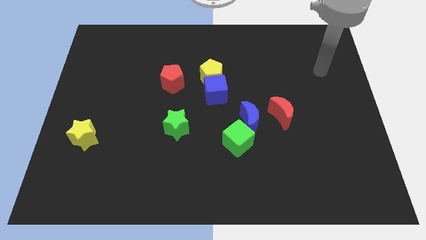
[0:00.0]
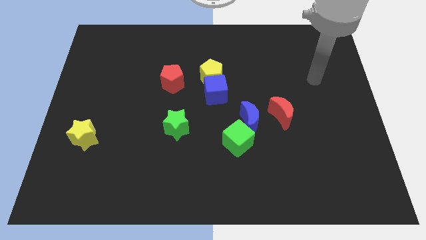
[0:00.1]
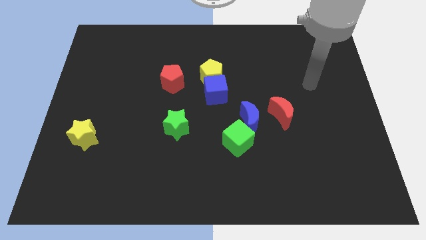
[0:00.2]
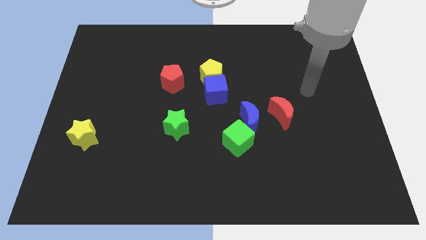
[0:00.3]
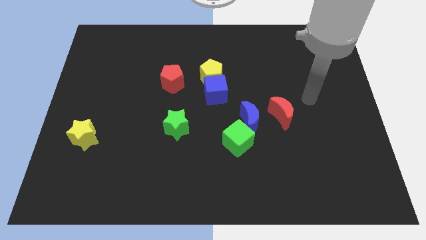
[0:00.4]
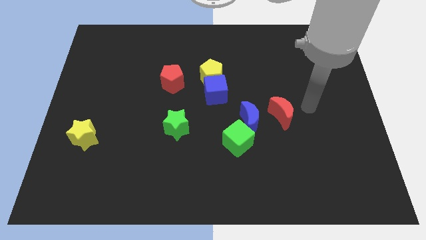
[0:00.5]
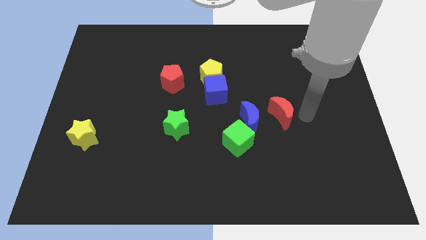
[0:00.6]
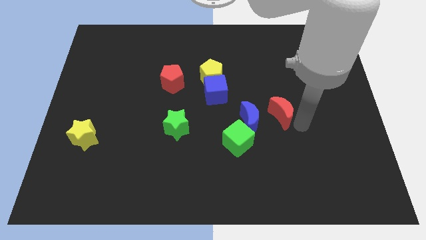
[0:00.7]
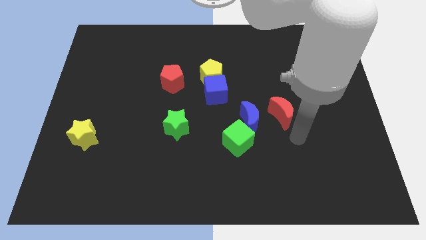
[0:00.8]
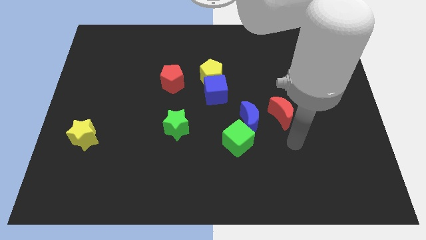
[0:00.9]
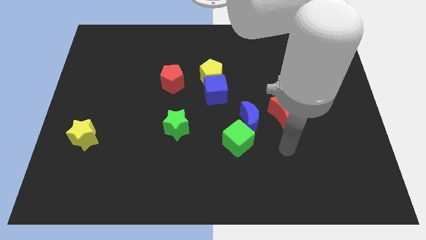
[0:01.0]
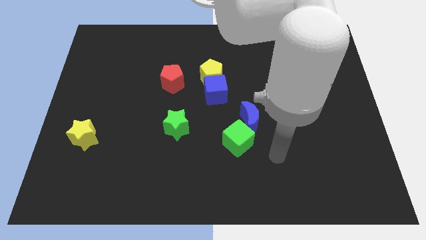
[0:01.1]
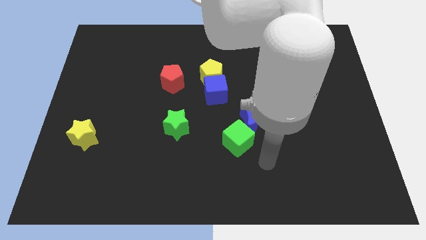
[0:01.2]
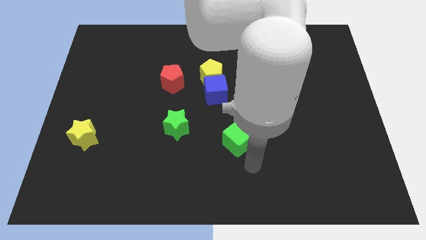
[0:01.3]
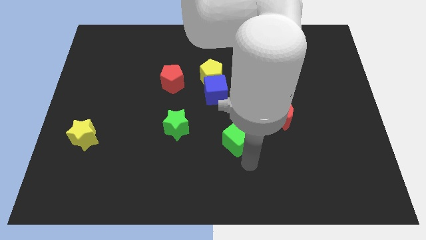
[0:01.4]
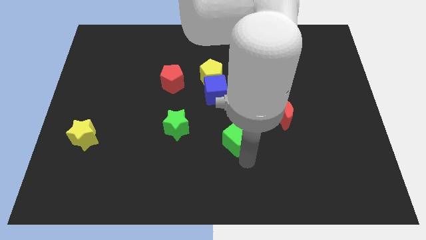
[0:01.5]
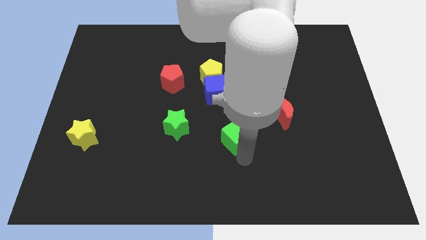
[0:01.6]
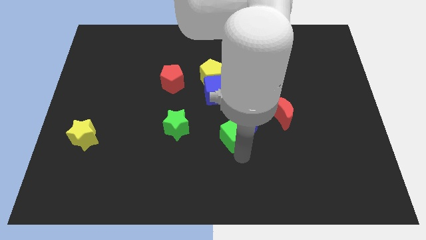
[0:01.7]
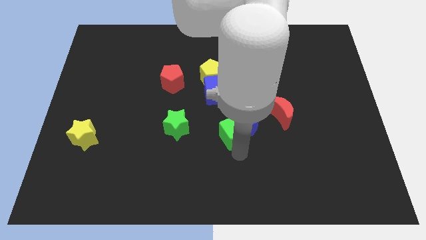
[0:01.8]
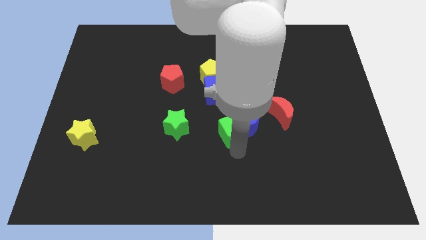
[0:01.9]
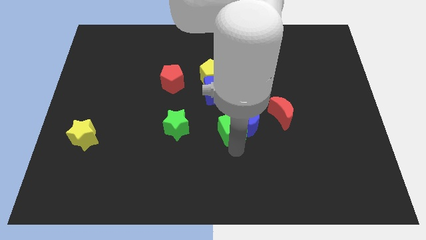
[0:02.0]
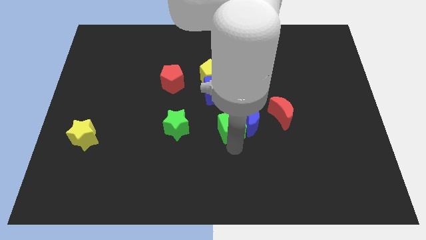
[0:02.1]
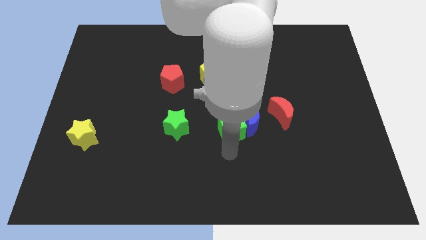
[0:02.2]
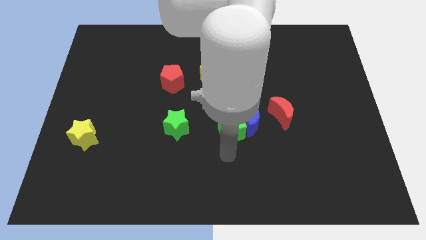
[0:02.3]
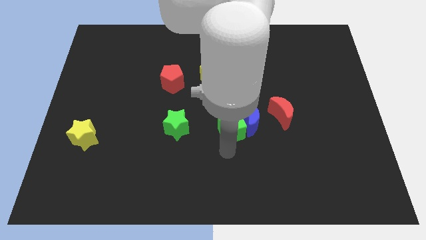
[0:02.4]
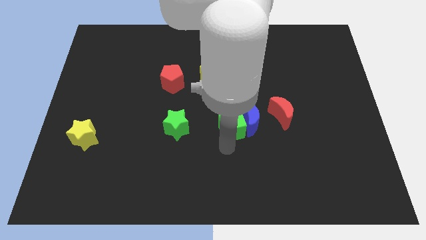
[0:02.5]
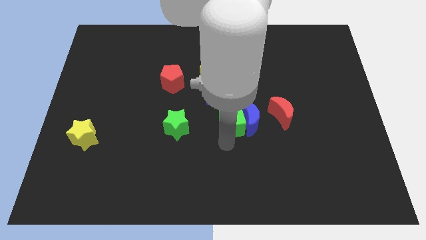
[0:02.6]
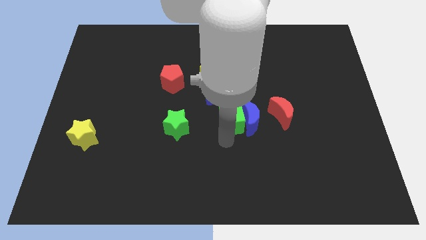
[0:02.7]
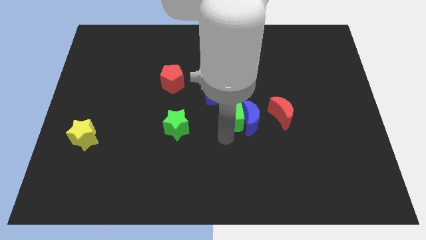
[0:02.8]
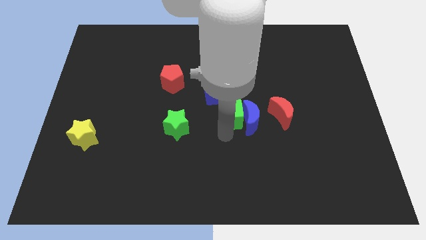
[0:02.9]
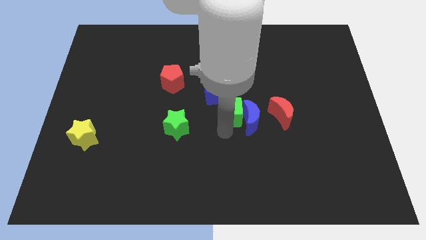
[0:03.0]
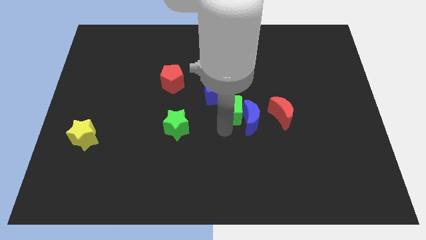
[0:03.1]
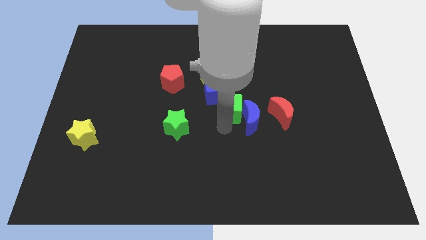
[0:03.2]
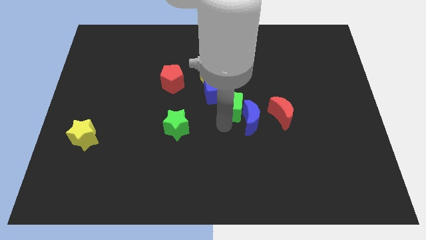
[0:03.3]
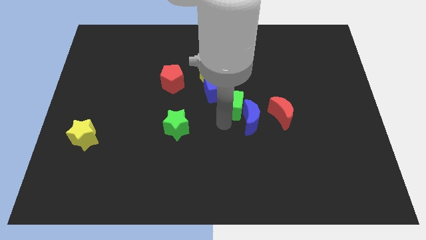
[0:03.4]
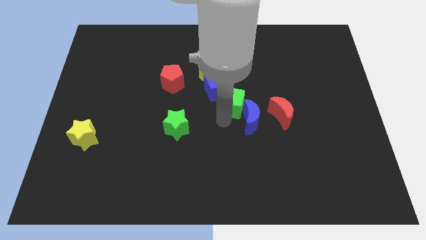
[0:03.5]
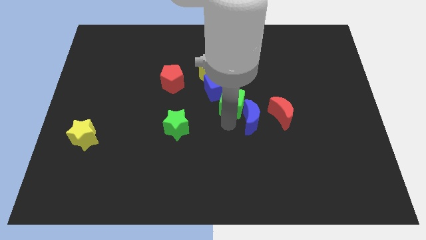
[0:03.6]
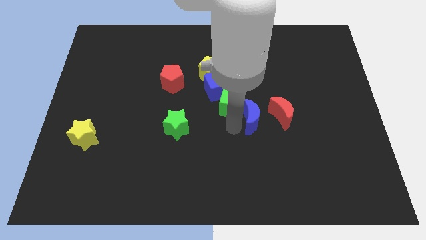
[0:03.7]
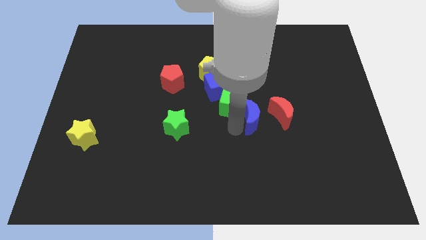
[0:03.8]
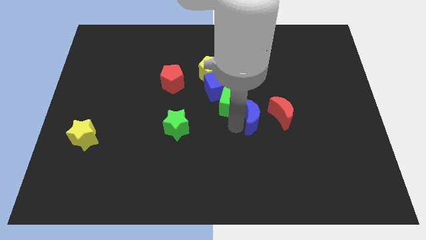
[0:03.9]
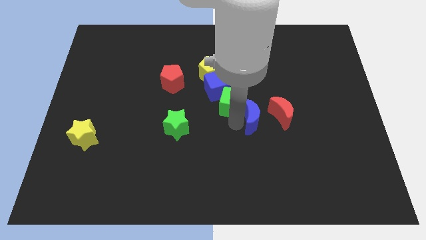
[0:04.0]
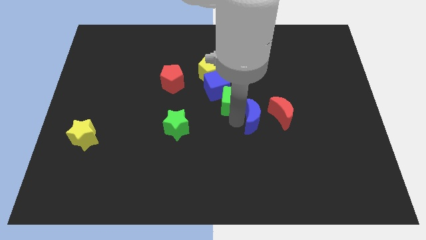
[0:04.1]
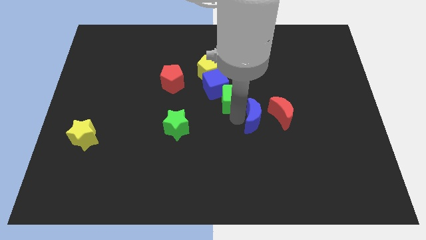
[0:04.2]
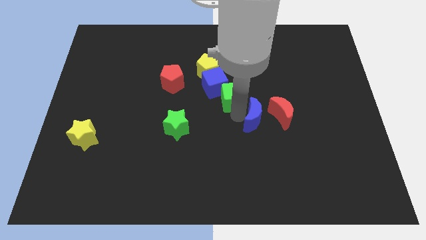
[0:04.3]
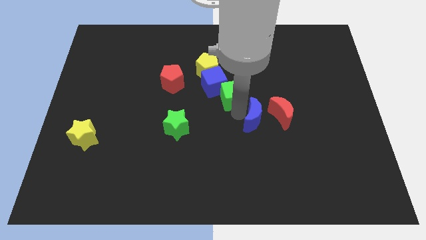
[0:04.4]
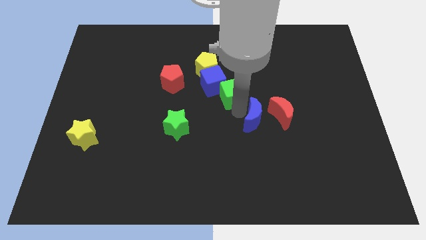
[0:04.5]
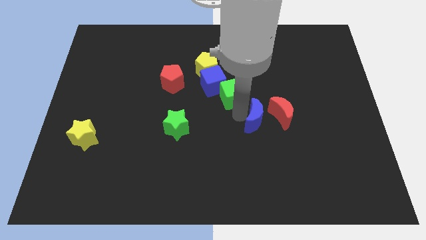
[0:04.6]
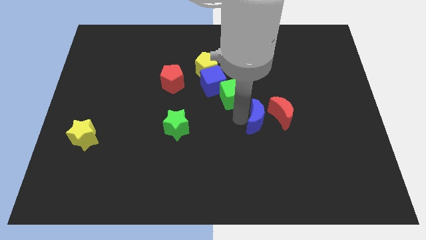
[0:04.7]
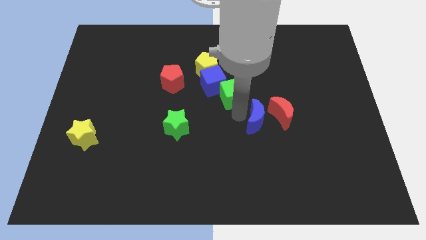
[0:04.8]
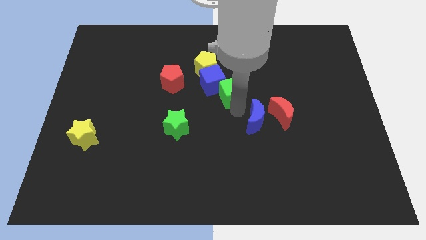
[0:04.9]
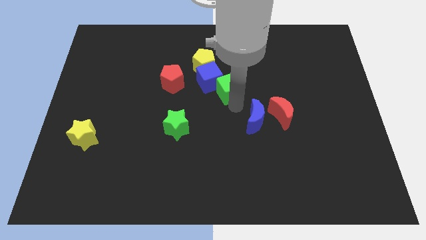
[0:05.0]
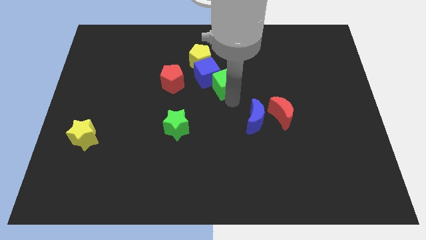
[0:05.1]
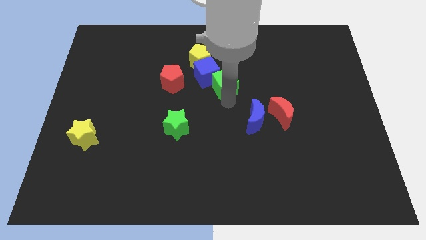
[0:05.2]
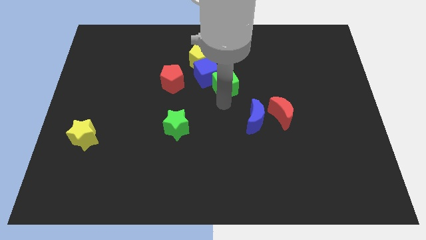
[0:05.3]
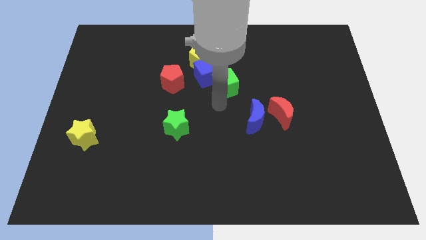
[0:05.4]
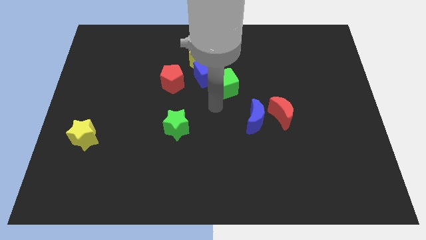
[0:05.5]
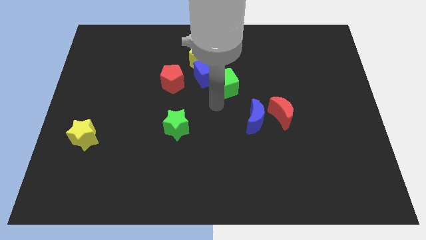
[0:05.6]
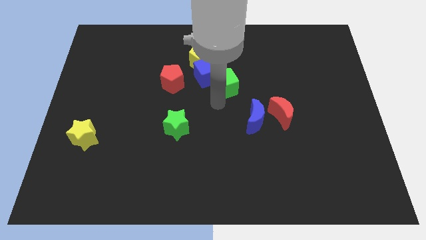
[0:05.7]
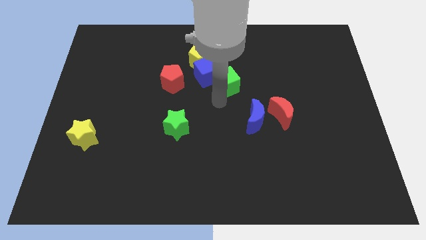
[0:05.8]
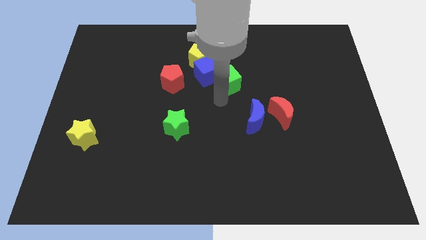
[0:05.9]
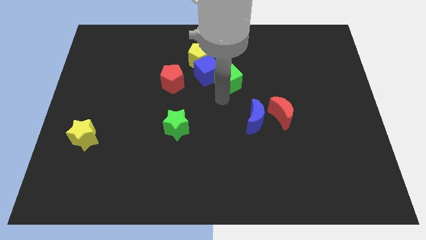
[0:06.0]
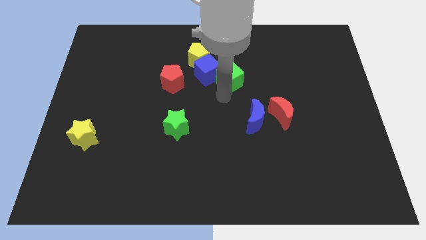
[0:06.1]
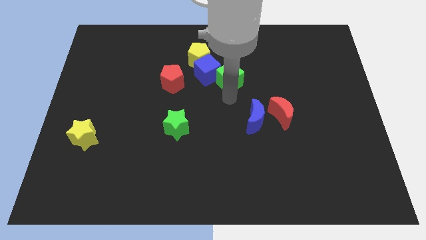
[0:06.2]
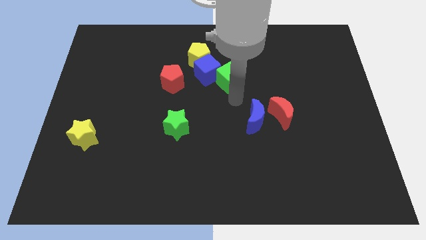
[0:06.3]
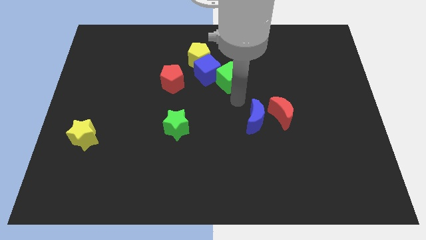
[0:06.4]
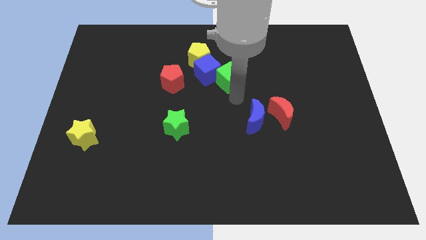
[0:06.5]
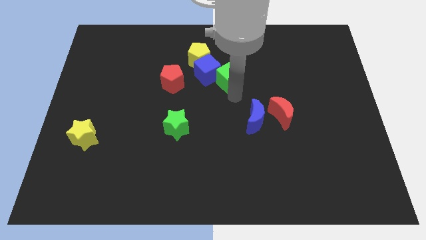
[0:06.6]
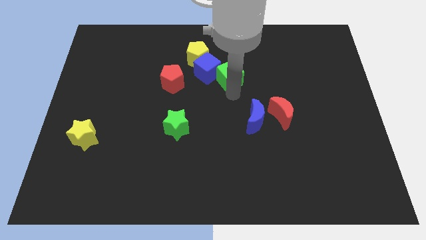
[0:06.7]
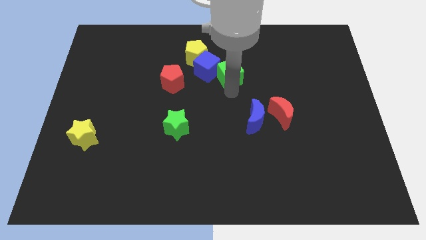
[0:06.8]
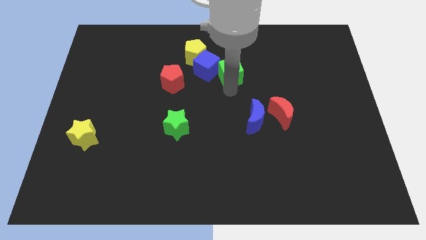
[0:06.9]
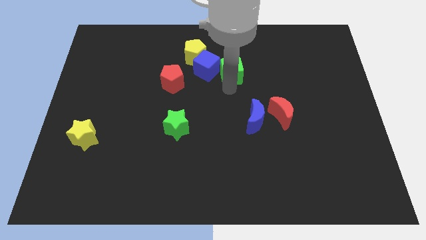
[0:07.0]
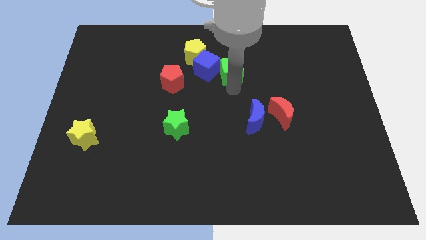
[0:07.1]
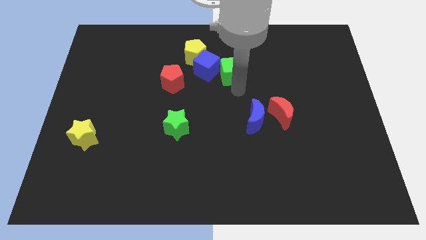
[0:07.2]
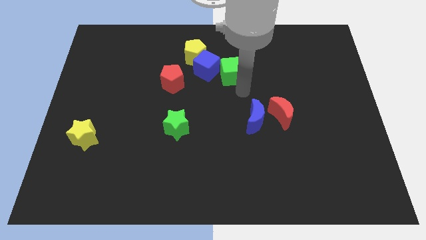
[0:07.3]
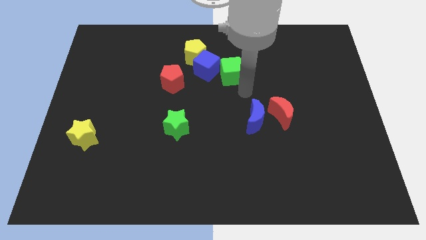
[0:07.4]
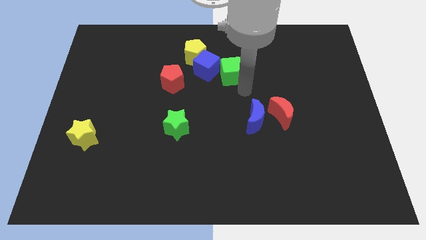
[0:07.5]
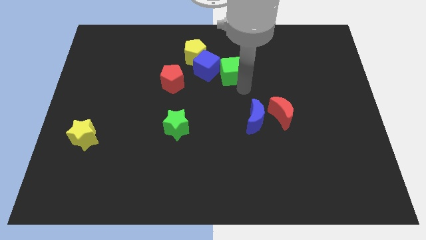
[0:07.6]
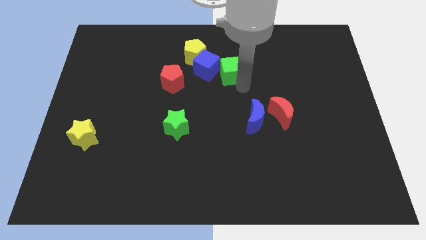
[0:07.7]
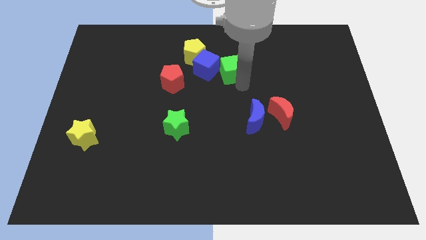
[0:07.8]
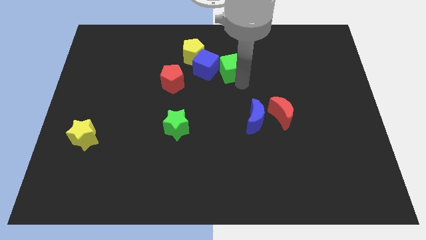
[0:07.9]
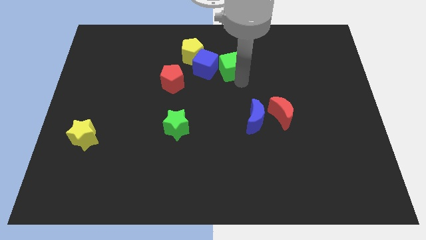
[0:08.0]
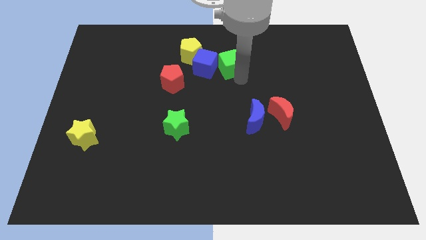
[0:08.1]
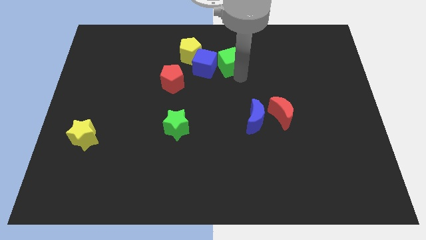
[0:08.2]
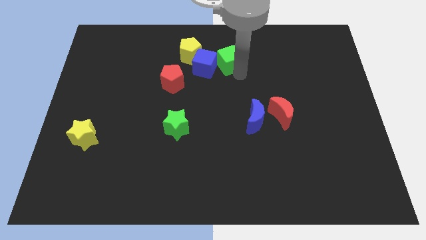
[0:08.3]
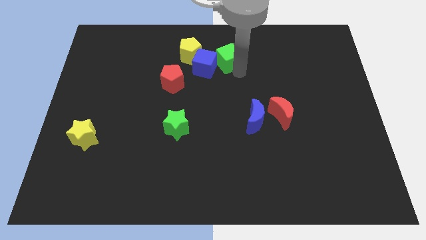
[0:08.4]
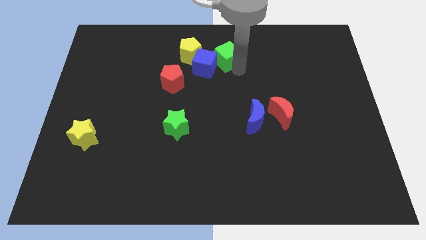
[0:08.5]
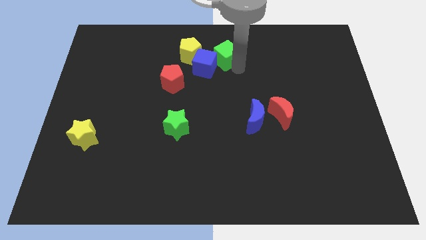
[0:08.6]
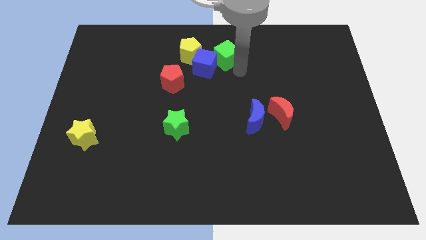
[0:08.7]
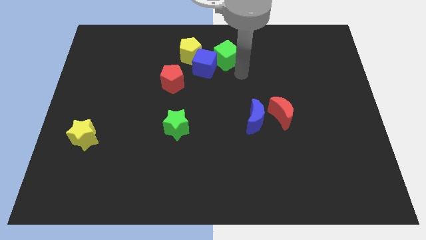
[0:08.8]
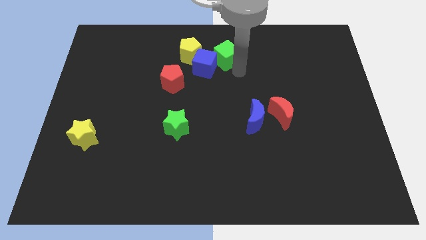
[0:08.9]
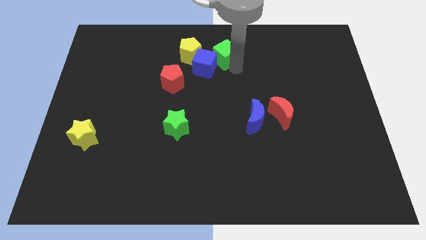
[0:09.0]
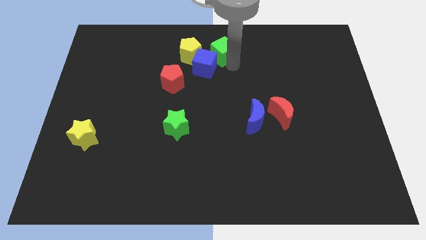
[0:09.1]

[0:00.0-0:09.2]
move the green cube to the top
